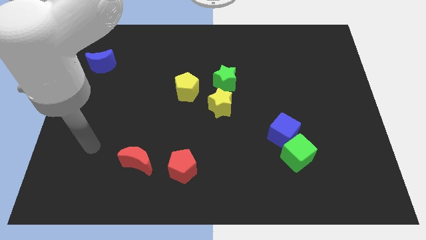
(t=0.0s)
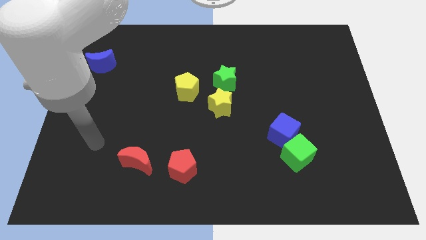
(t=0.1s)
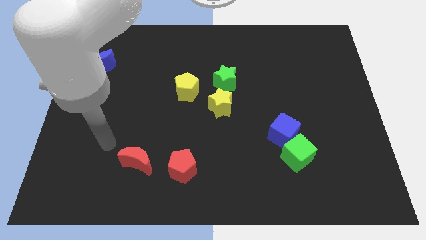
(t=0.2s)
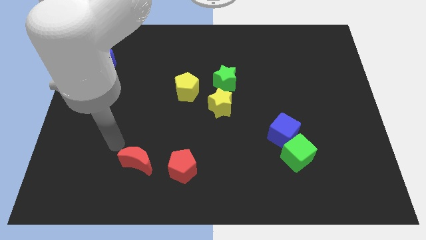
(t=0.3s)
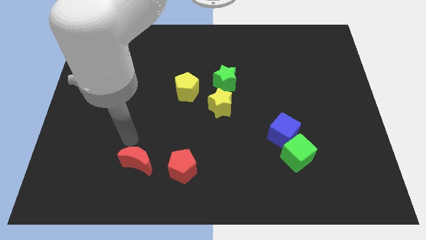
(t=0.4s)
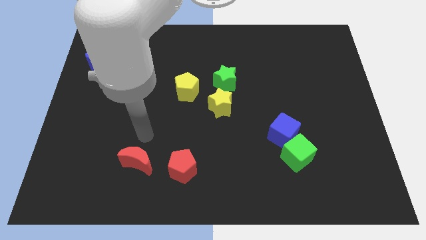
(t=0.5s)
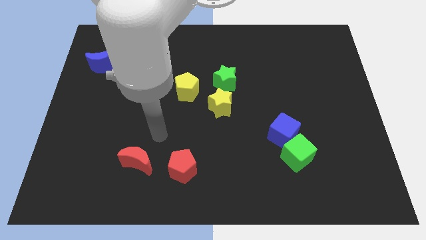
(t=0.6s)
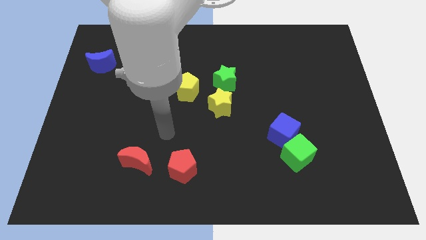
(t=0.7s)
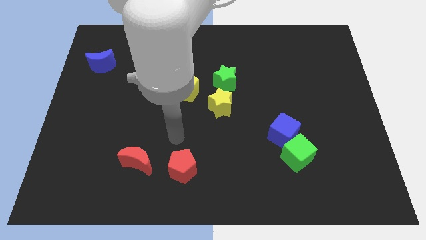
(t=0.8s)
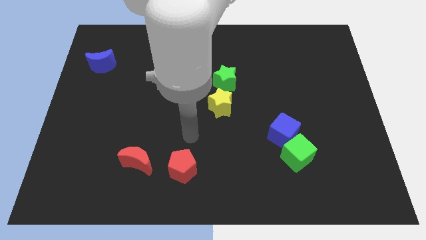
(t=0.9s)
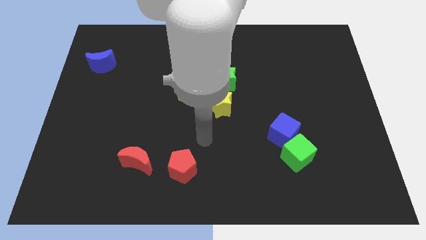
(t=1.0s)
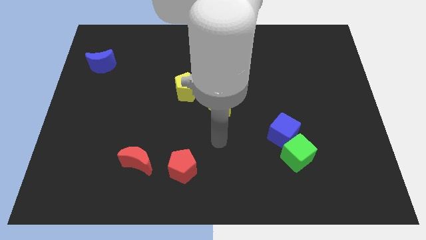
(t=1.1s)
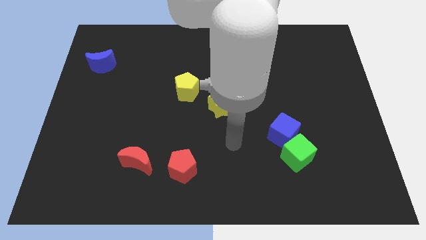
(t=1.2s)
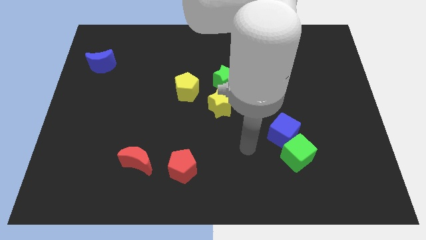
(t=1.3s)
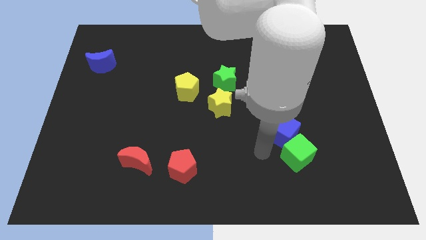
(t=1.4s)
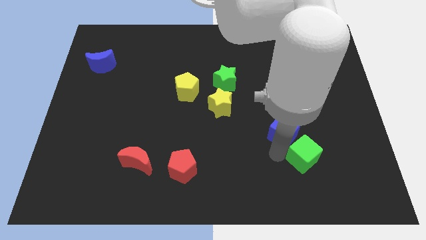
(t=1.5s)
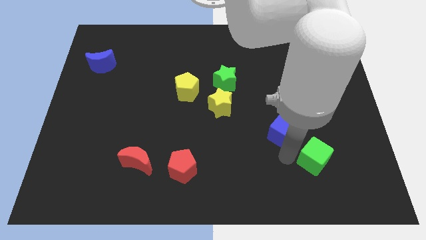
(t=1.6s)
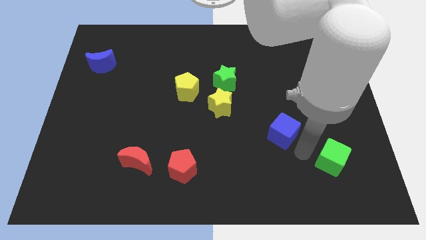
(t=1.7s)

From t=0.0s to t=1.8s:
move the blue cube away from the green cube

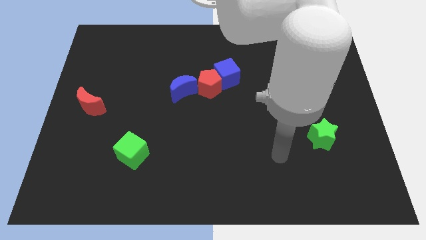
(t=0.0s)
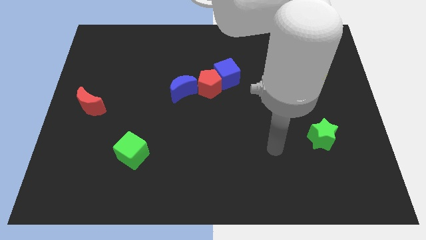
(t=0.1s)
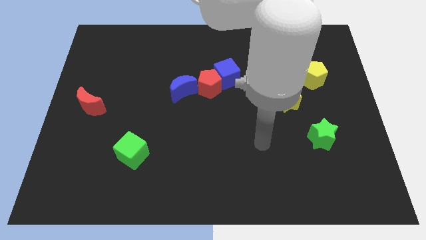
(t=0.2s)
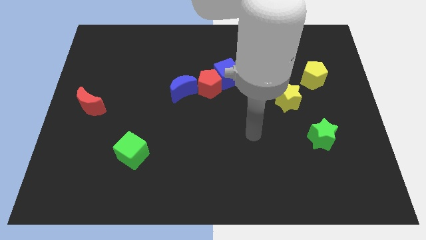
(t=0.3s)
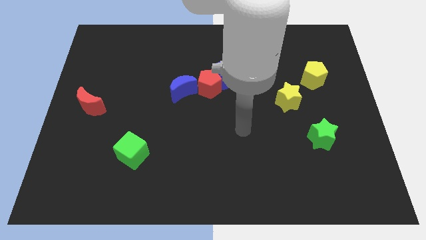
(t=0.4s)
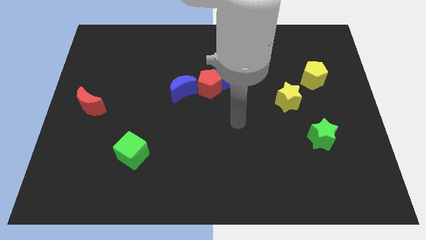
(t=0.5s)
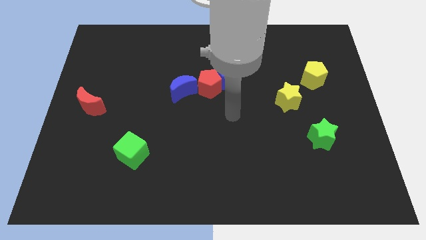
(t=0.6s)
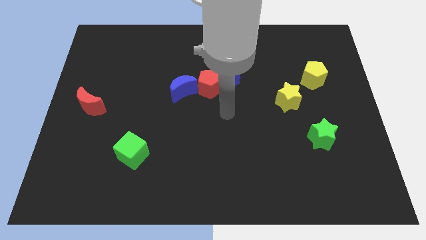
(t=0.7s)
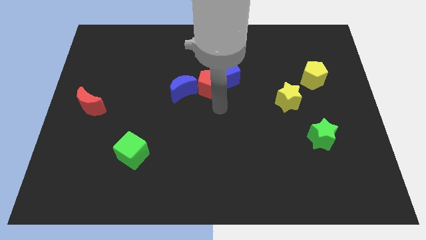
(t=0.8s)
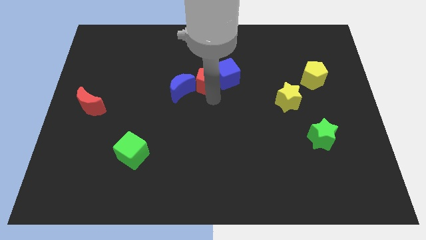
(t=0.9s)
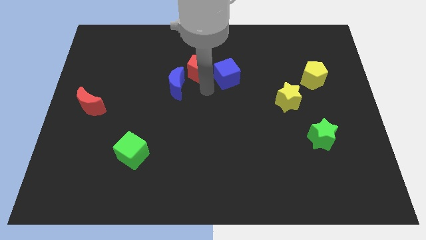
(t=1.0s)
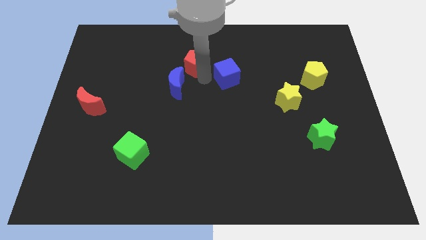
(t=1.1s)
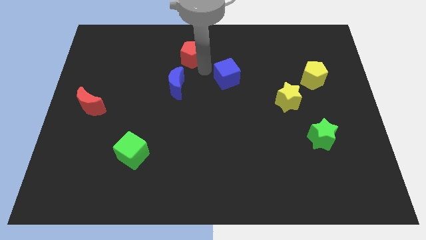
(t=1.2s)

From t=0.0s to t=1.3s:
separate the blue cube from the red pentagon

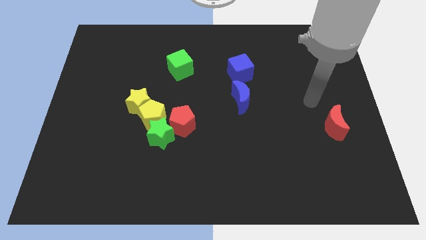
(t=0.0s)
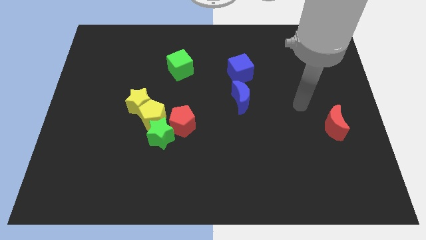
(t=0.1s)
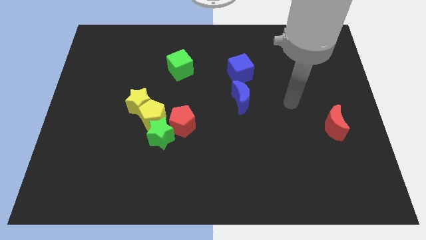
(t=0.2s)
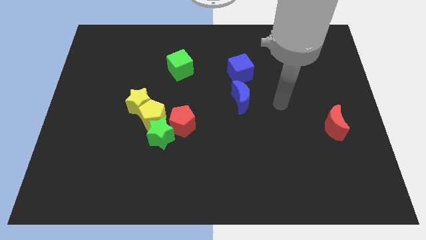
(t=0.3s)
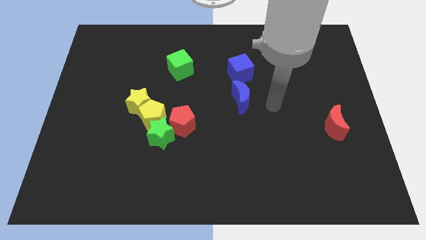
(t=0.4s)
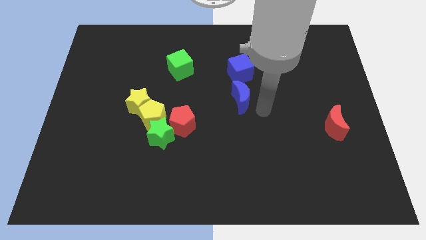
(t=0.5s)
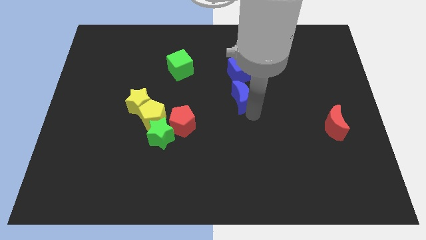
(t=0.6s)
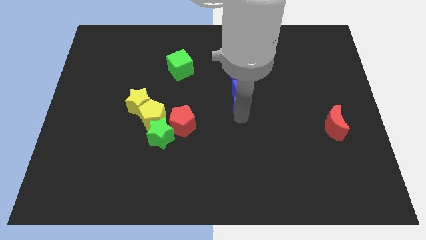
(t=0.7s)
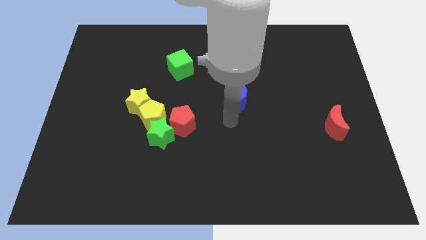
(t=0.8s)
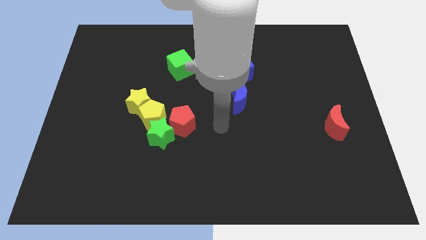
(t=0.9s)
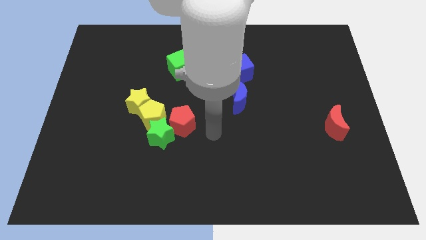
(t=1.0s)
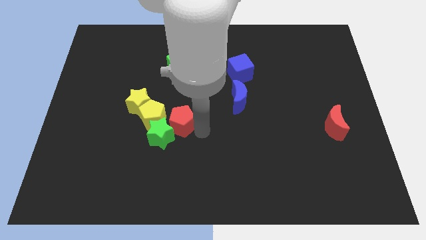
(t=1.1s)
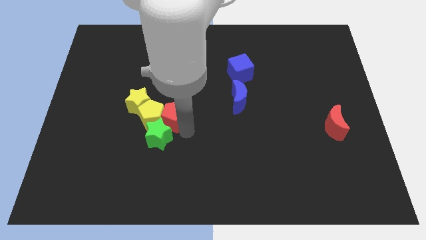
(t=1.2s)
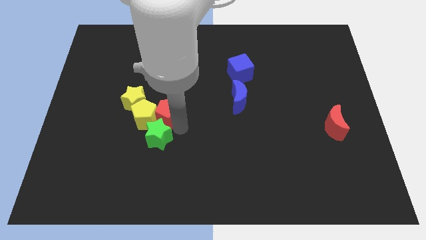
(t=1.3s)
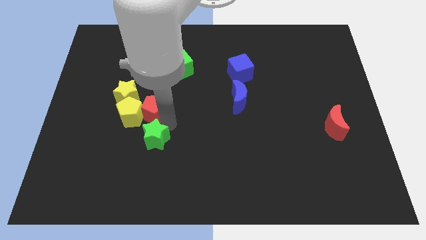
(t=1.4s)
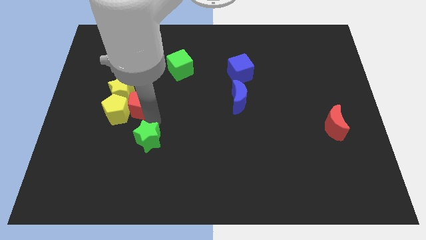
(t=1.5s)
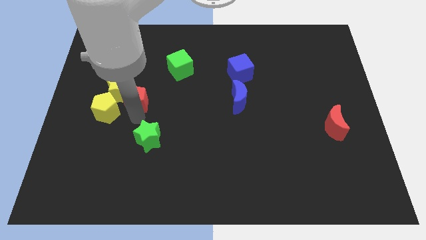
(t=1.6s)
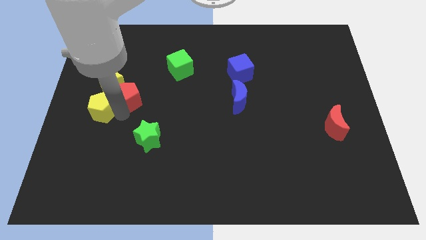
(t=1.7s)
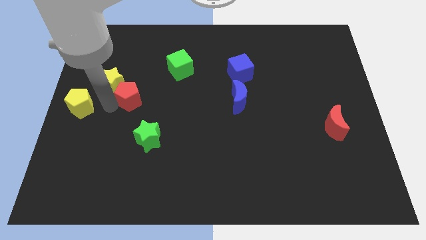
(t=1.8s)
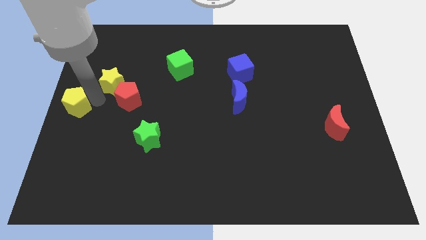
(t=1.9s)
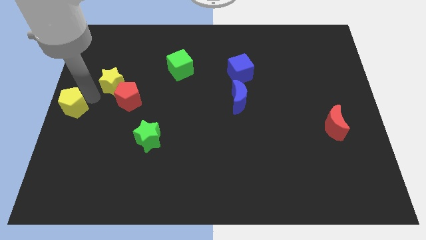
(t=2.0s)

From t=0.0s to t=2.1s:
pull the yellow star apart from the yellow pentagon

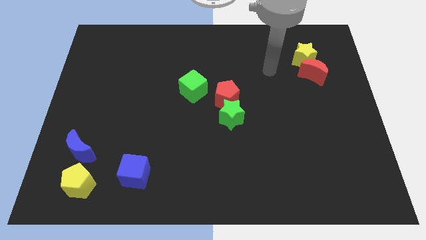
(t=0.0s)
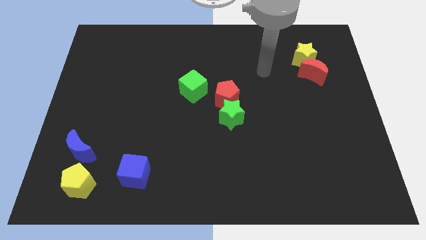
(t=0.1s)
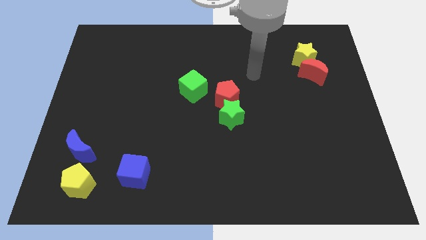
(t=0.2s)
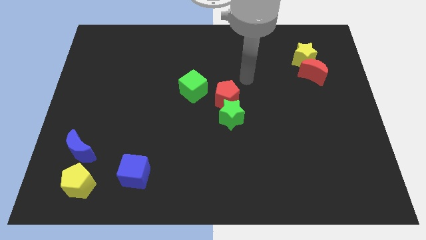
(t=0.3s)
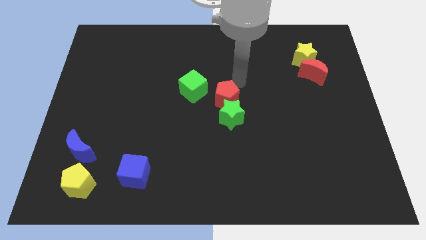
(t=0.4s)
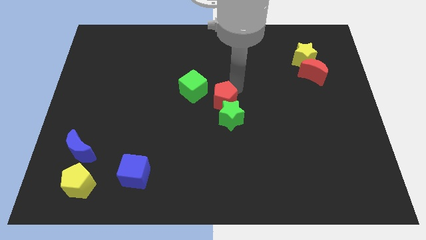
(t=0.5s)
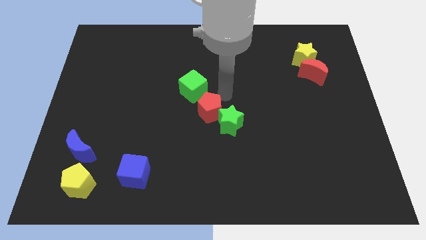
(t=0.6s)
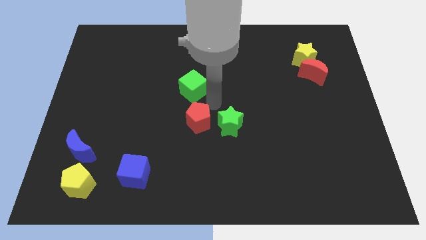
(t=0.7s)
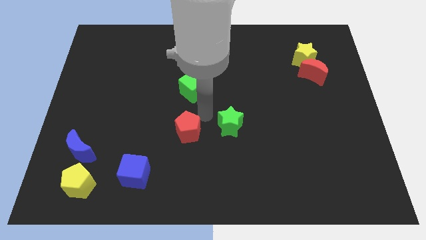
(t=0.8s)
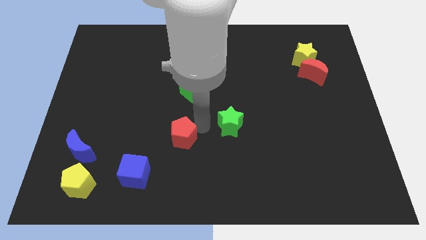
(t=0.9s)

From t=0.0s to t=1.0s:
separate the green star from the red pentagon

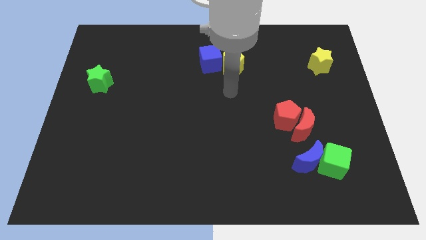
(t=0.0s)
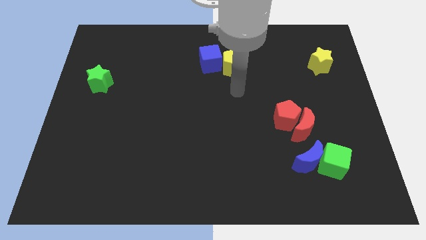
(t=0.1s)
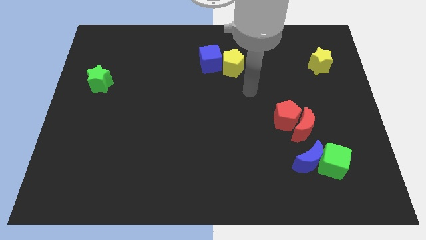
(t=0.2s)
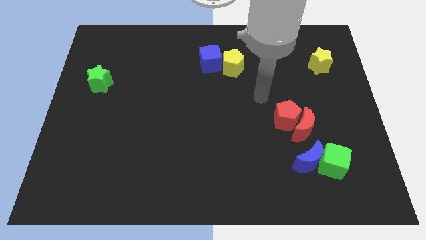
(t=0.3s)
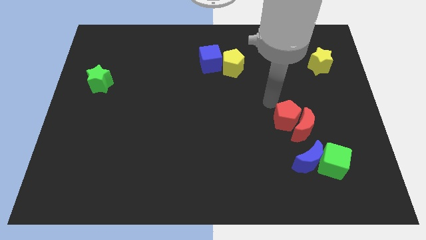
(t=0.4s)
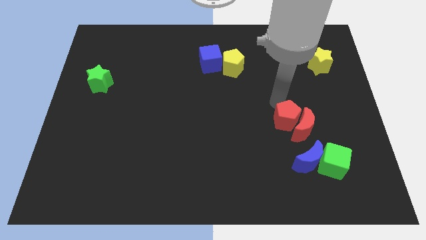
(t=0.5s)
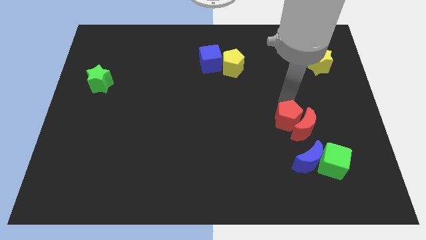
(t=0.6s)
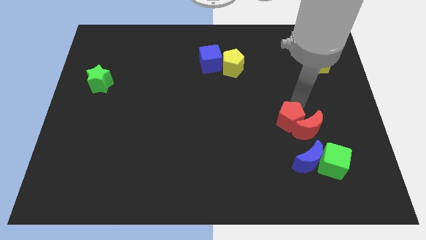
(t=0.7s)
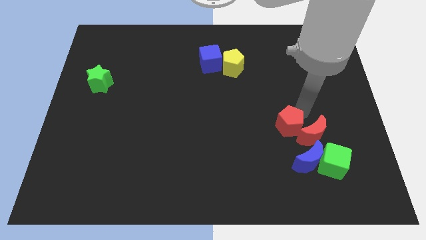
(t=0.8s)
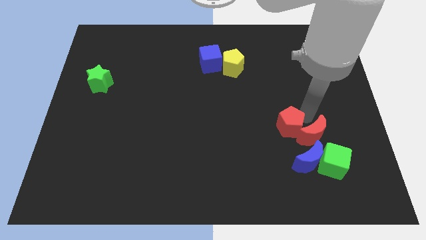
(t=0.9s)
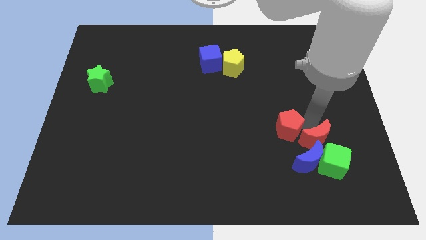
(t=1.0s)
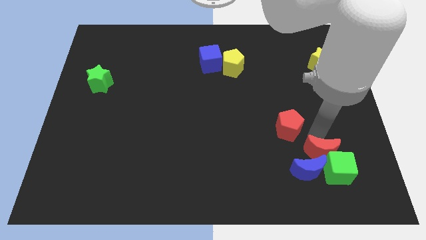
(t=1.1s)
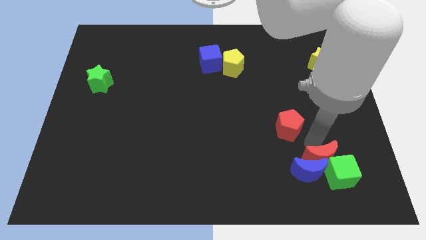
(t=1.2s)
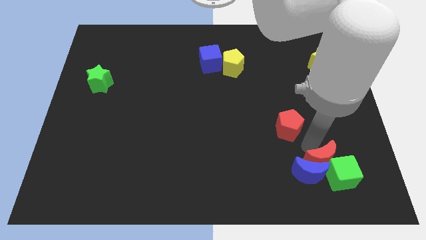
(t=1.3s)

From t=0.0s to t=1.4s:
pull the red pentagon apart from the red moon

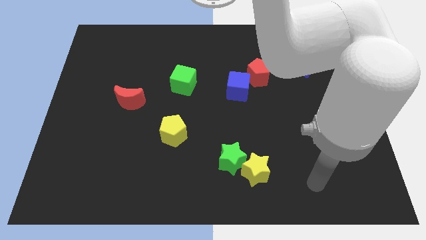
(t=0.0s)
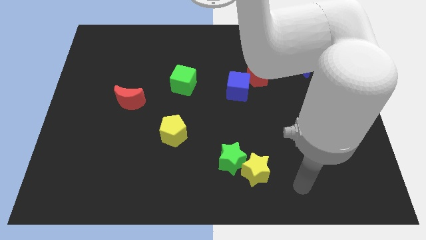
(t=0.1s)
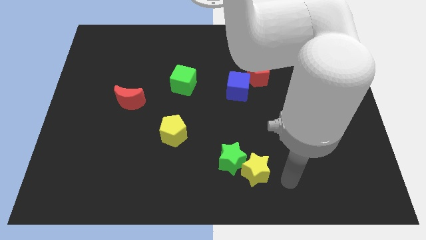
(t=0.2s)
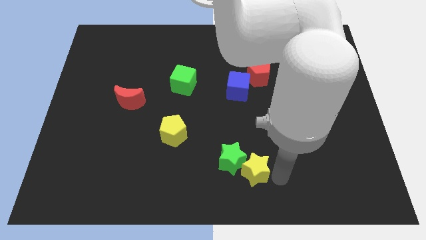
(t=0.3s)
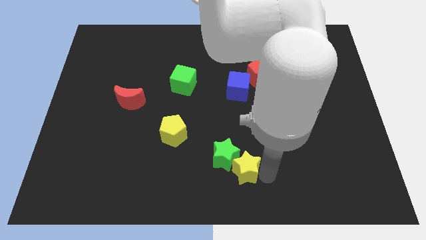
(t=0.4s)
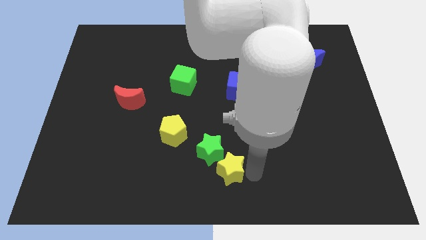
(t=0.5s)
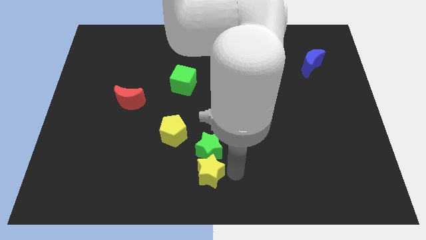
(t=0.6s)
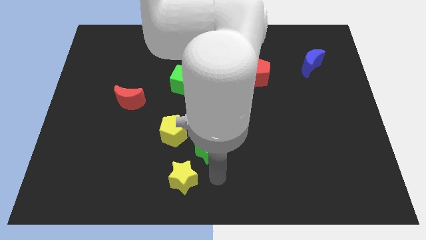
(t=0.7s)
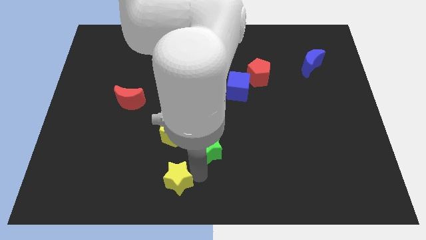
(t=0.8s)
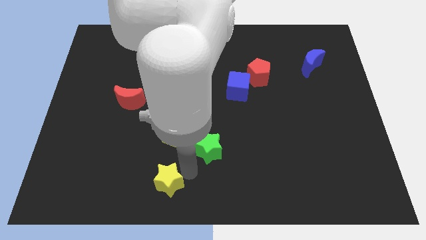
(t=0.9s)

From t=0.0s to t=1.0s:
move the green star away from the yellow star

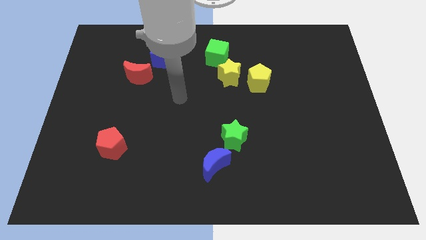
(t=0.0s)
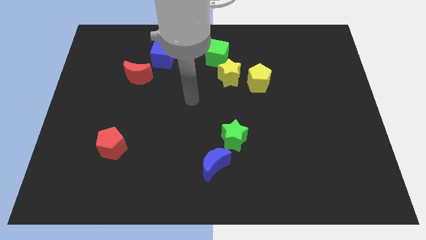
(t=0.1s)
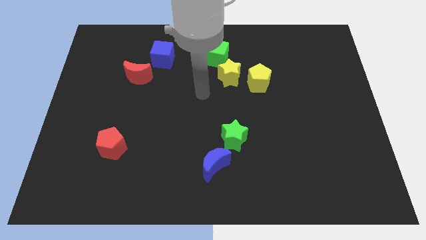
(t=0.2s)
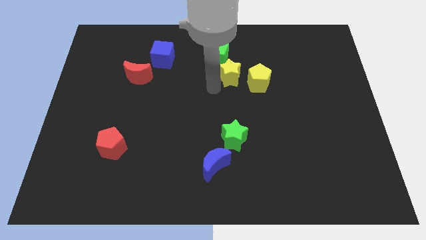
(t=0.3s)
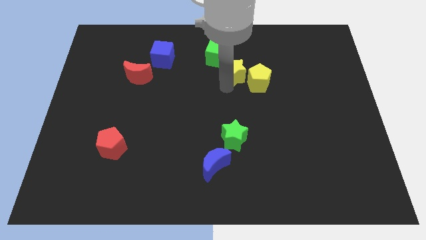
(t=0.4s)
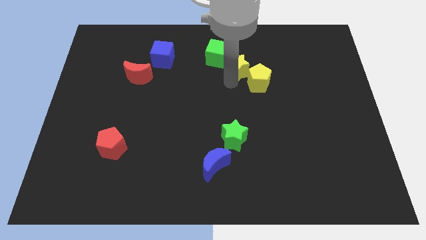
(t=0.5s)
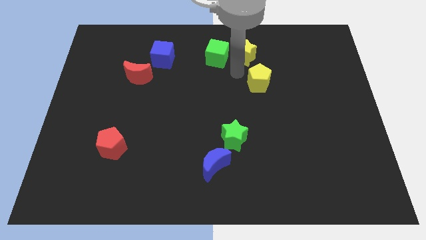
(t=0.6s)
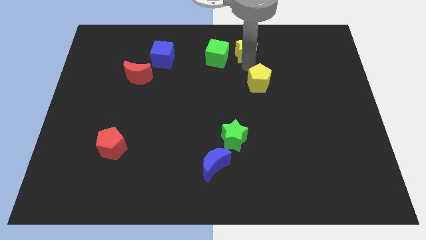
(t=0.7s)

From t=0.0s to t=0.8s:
move the yellow pentagon away from the yellow star

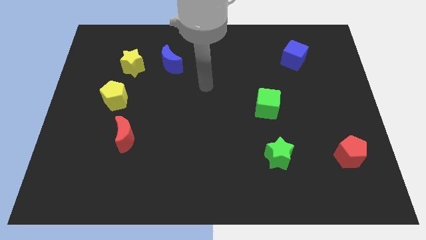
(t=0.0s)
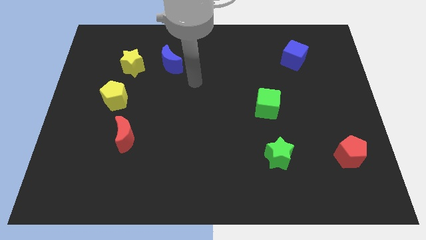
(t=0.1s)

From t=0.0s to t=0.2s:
pull the blue moon apart from the yellow star
